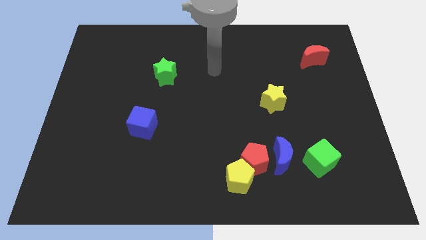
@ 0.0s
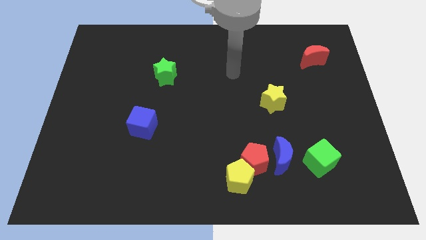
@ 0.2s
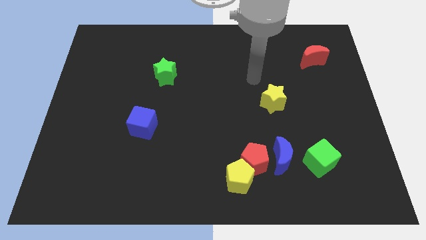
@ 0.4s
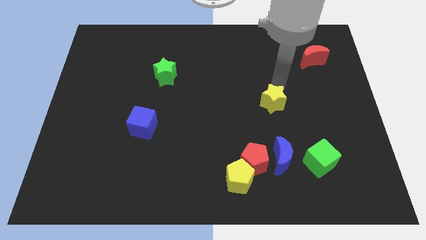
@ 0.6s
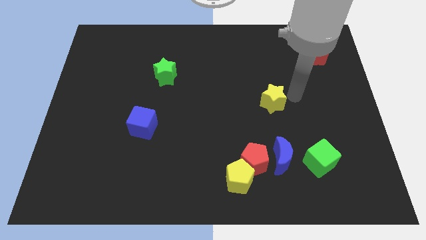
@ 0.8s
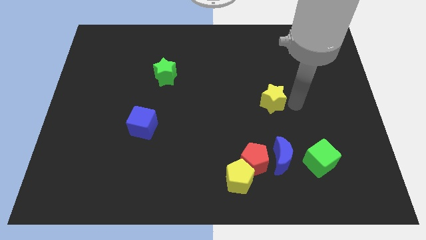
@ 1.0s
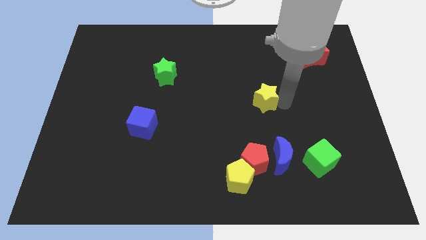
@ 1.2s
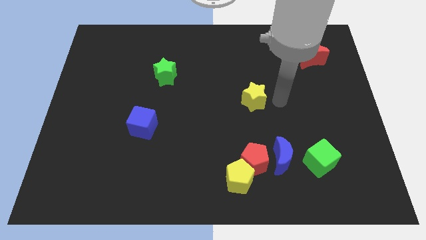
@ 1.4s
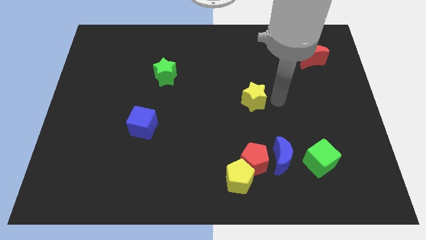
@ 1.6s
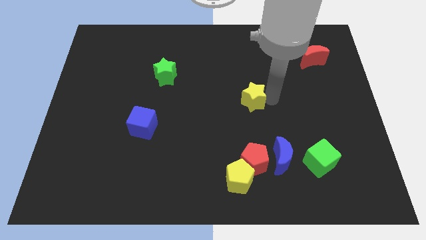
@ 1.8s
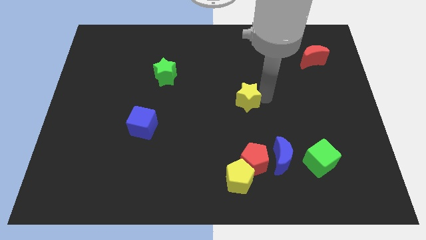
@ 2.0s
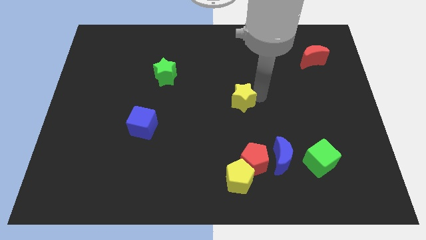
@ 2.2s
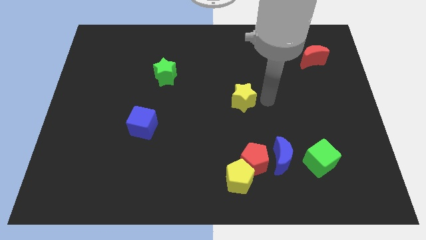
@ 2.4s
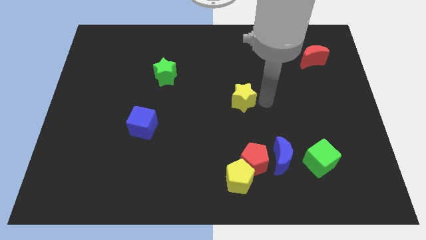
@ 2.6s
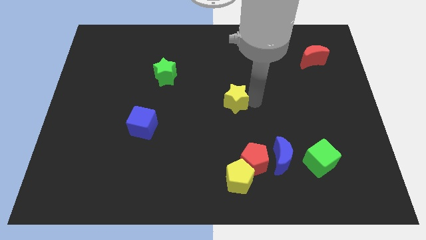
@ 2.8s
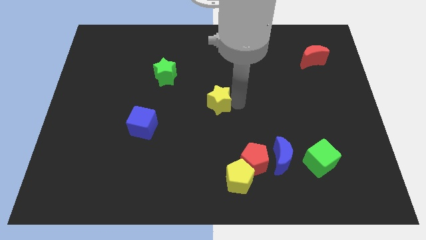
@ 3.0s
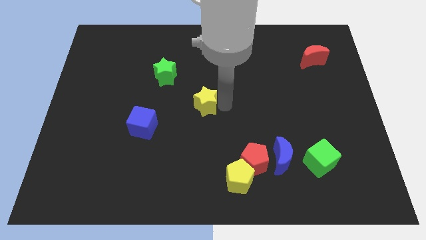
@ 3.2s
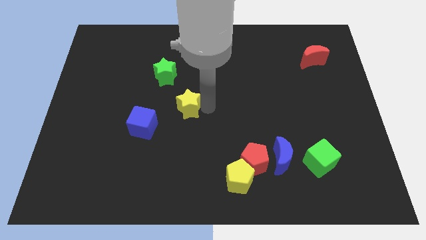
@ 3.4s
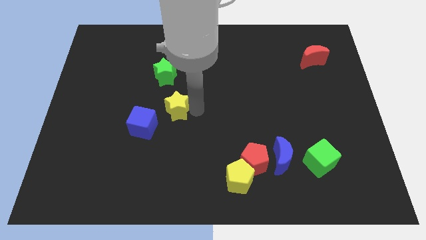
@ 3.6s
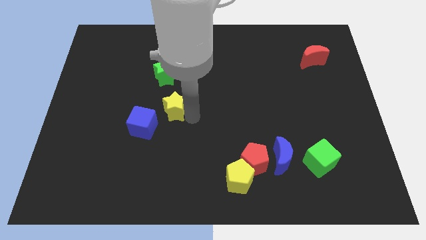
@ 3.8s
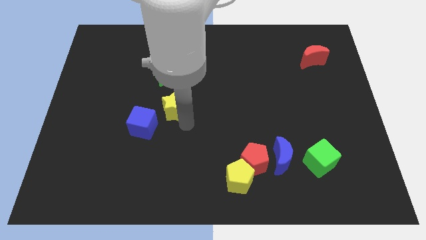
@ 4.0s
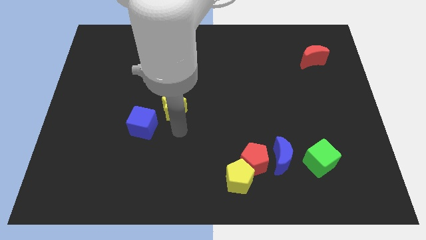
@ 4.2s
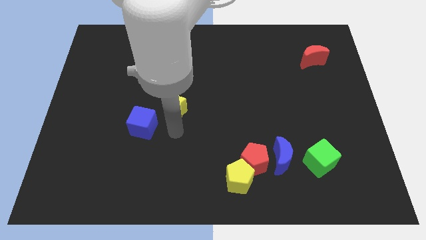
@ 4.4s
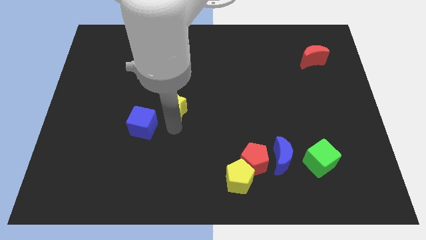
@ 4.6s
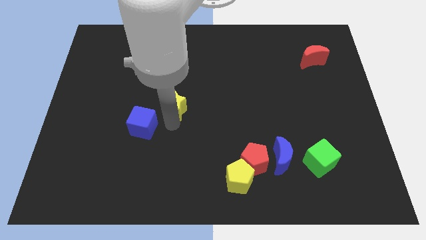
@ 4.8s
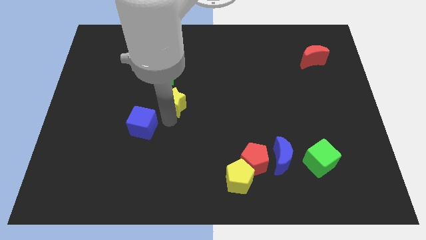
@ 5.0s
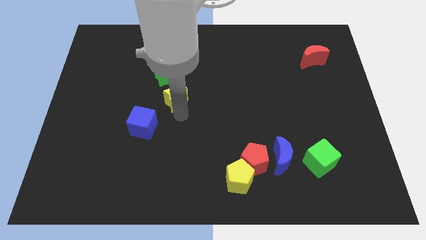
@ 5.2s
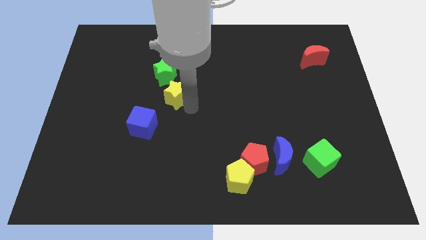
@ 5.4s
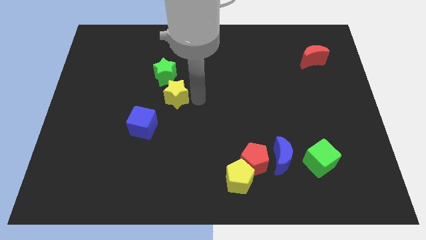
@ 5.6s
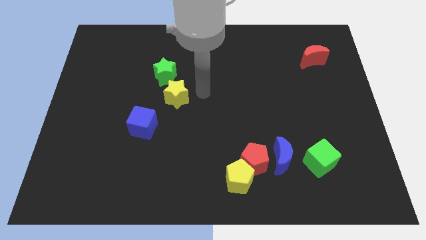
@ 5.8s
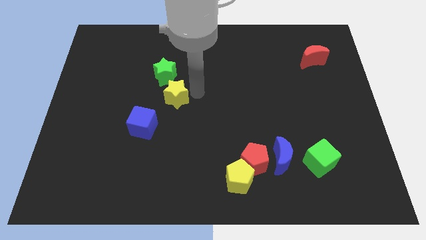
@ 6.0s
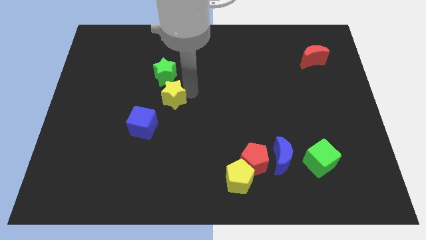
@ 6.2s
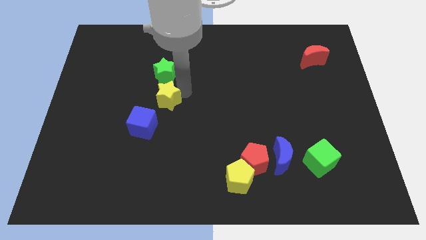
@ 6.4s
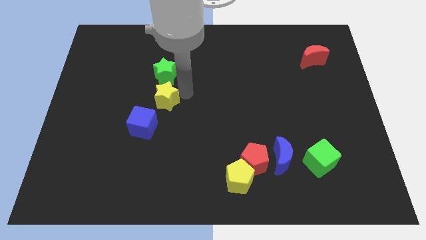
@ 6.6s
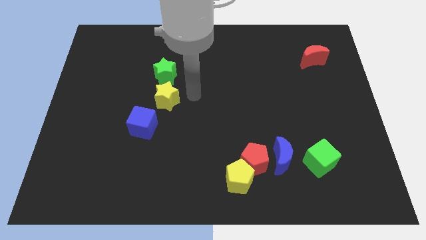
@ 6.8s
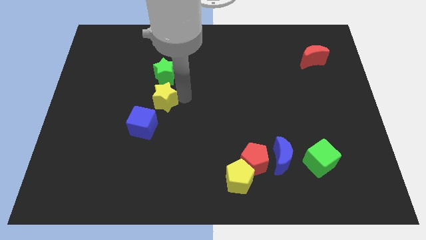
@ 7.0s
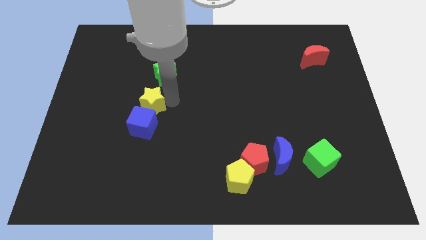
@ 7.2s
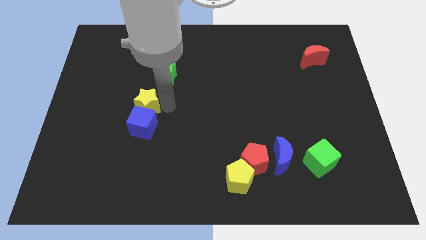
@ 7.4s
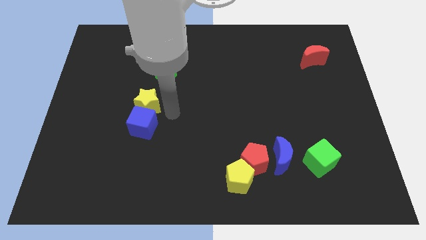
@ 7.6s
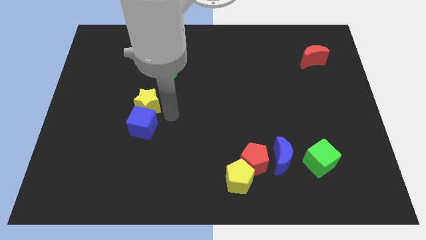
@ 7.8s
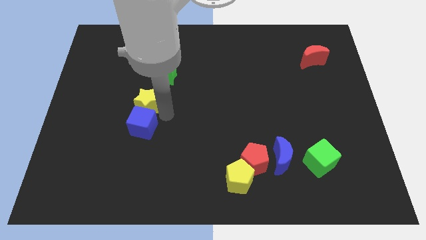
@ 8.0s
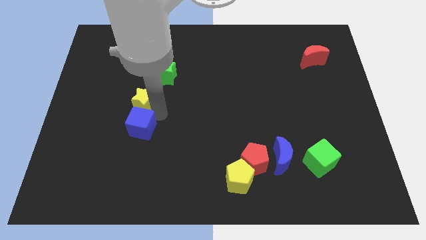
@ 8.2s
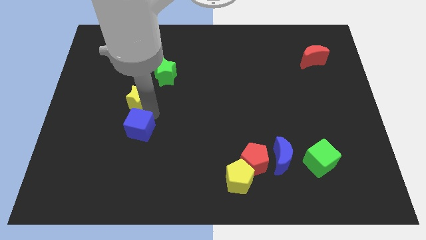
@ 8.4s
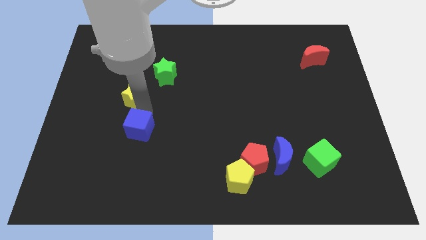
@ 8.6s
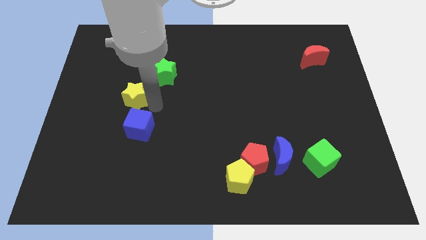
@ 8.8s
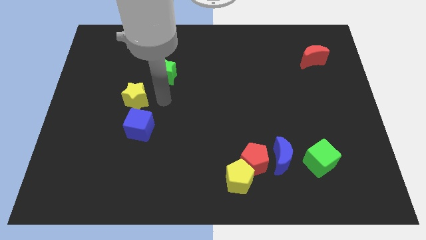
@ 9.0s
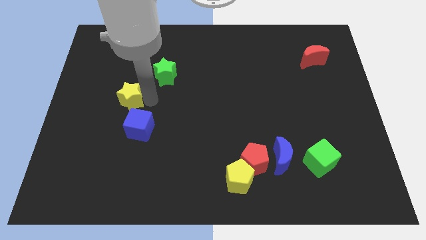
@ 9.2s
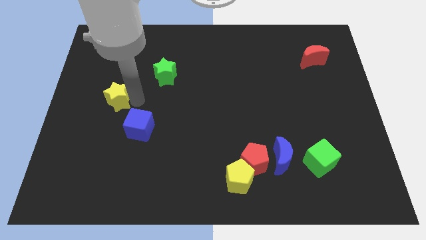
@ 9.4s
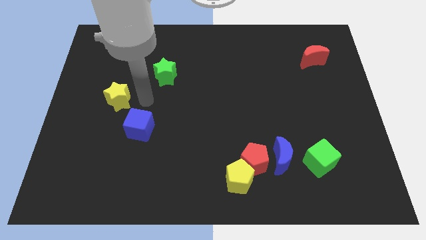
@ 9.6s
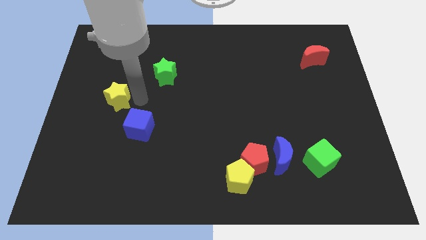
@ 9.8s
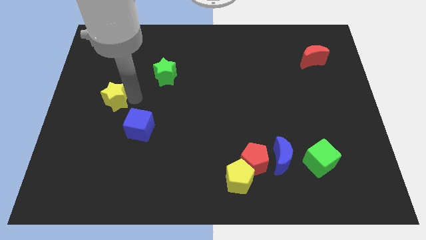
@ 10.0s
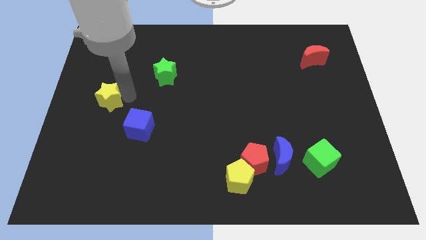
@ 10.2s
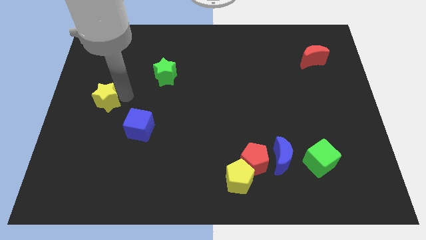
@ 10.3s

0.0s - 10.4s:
push the yellow star to the left side

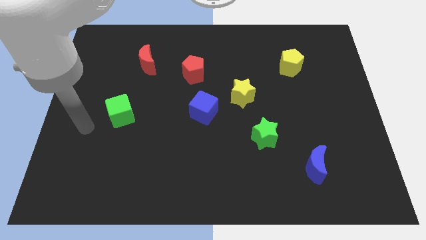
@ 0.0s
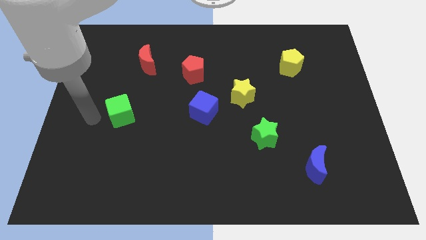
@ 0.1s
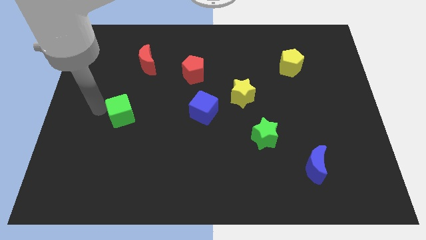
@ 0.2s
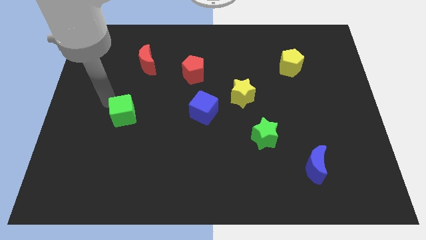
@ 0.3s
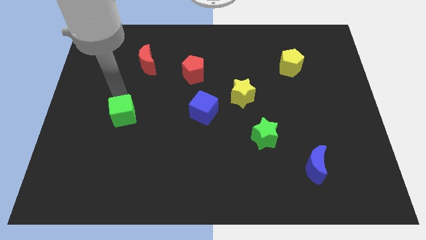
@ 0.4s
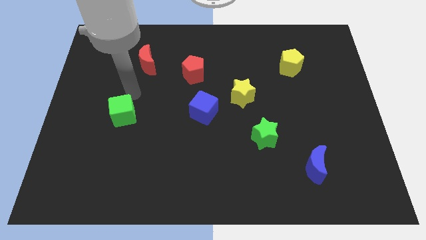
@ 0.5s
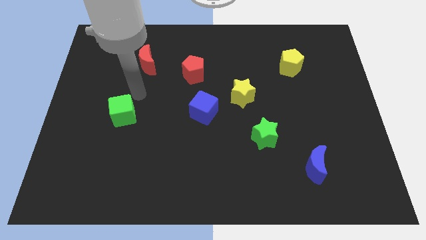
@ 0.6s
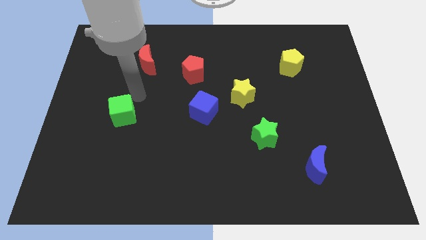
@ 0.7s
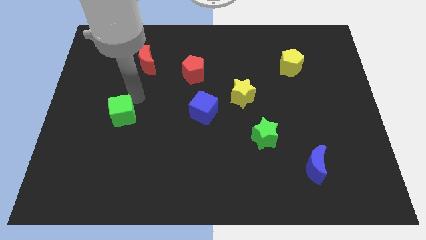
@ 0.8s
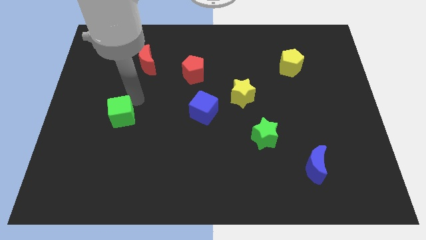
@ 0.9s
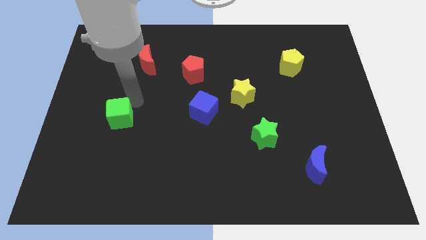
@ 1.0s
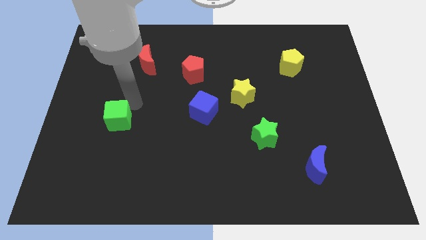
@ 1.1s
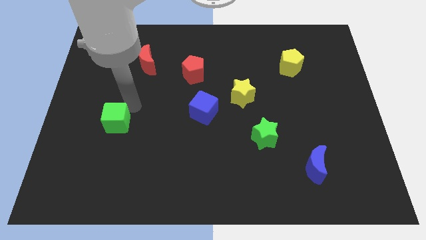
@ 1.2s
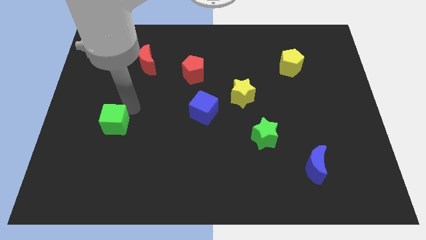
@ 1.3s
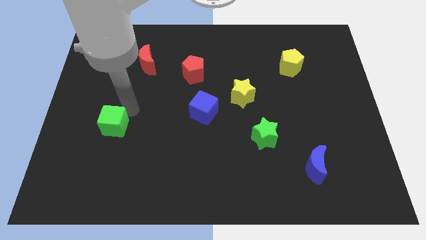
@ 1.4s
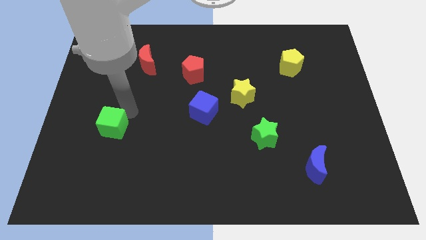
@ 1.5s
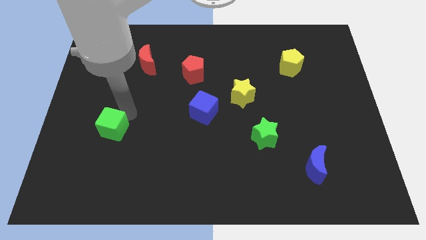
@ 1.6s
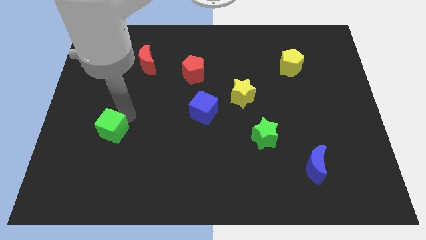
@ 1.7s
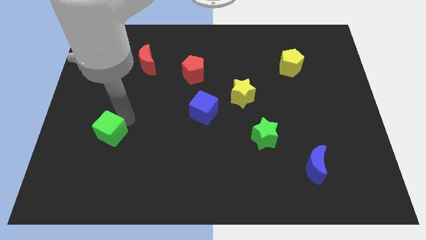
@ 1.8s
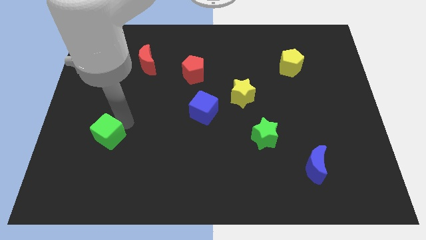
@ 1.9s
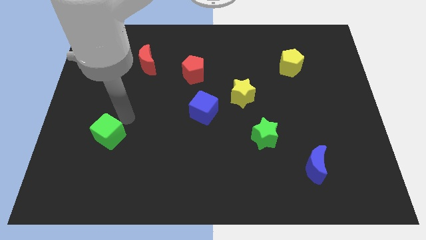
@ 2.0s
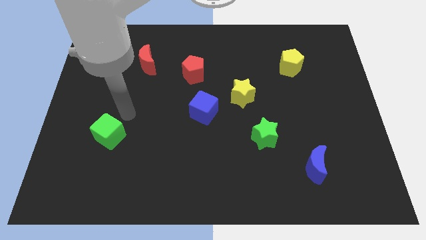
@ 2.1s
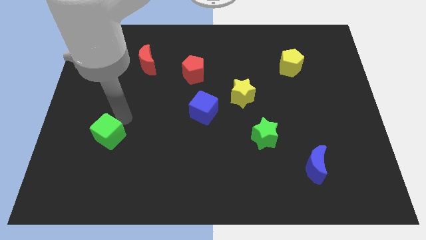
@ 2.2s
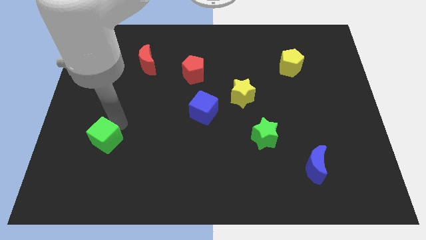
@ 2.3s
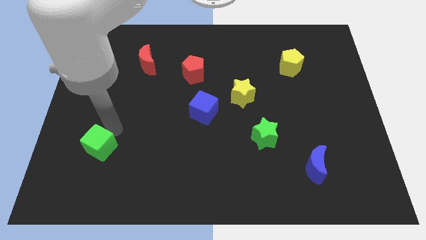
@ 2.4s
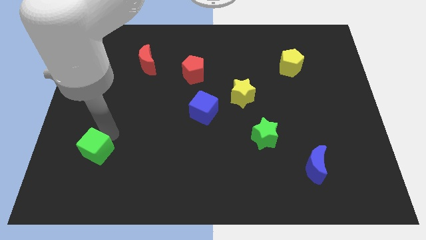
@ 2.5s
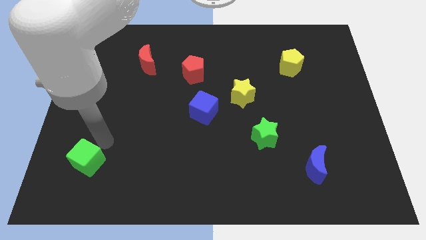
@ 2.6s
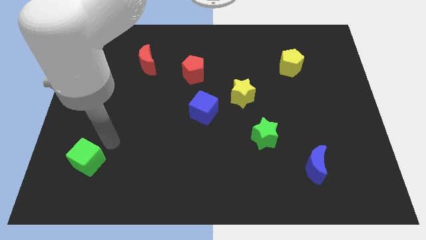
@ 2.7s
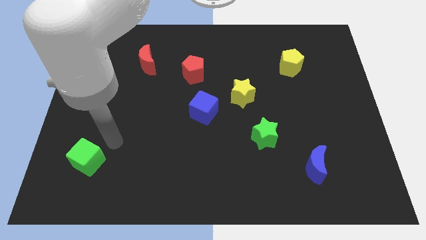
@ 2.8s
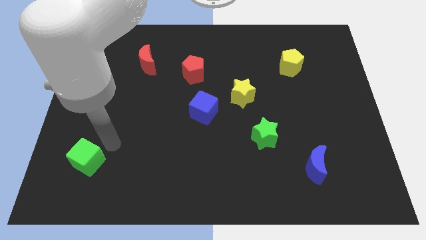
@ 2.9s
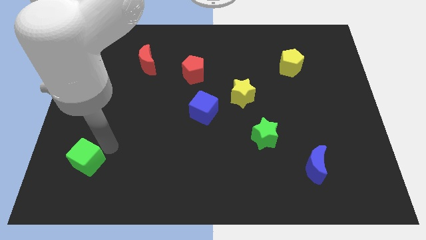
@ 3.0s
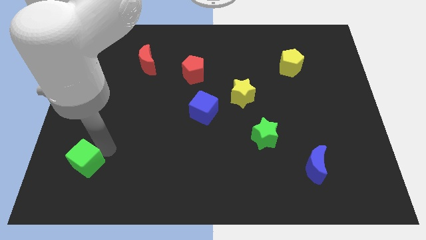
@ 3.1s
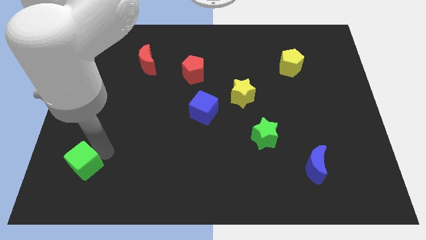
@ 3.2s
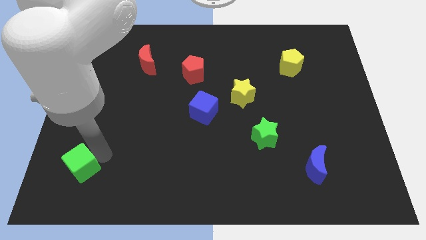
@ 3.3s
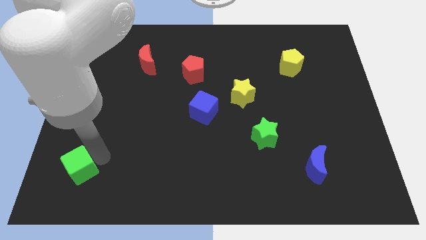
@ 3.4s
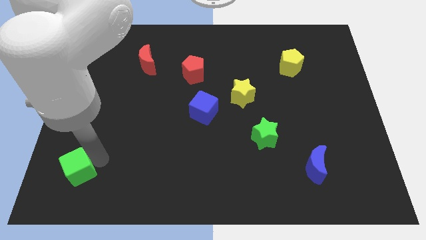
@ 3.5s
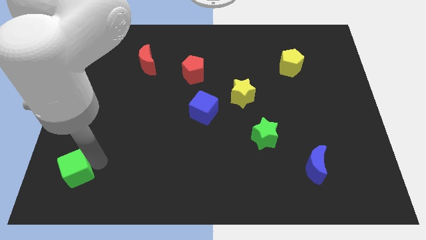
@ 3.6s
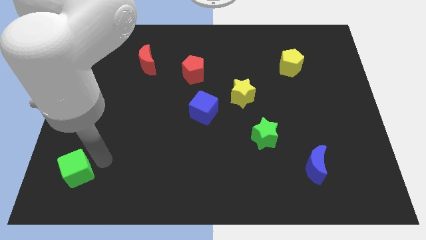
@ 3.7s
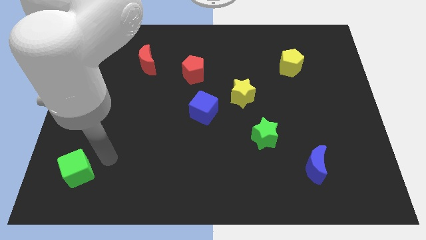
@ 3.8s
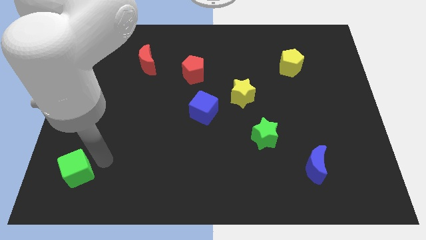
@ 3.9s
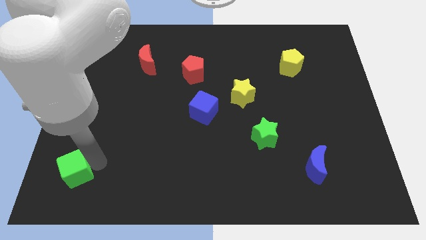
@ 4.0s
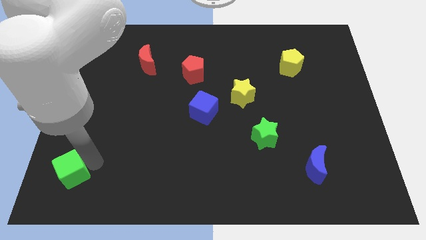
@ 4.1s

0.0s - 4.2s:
move the green cube to the bottom left of the board
